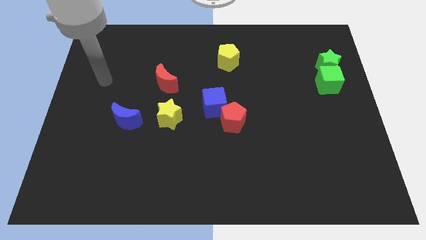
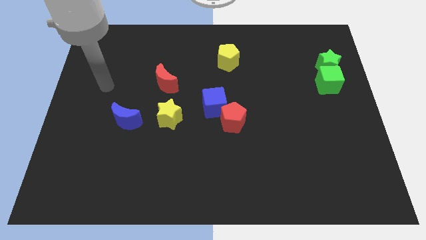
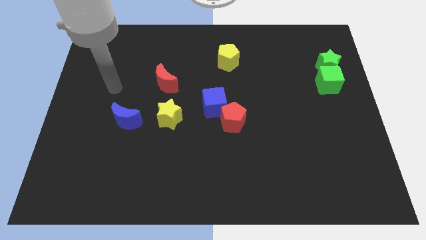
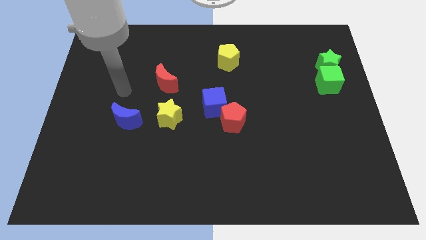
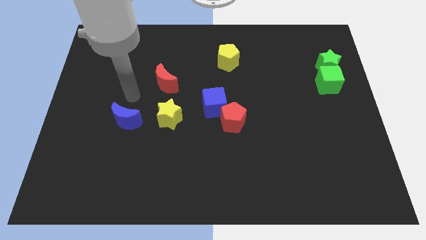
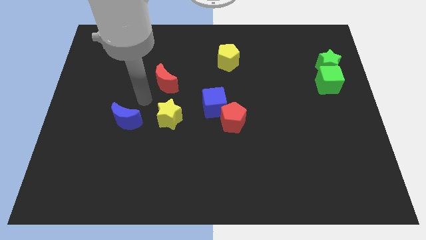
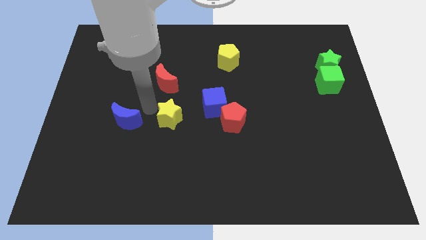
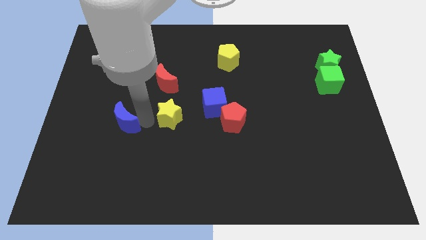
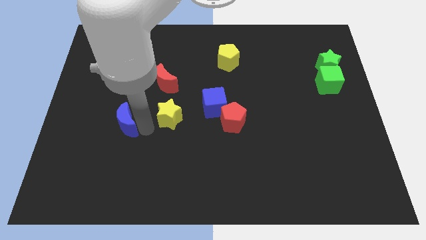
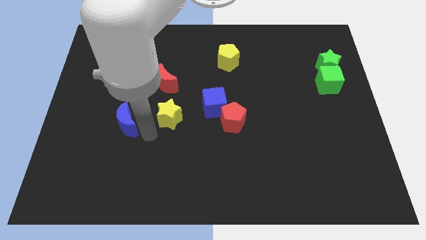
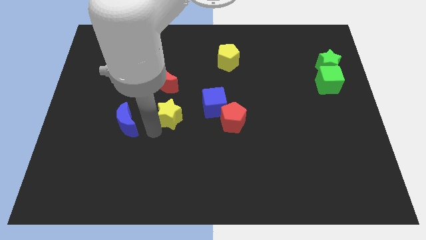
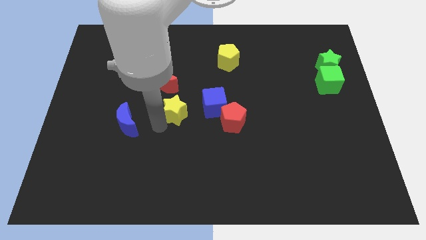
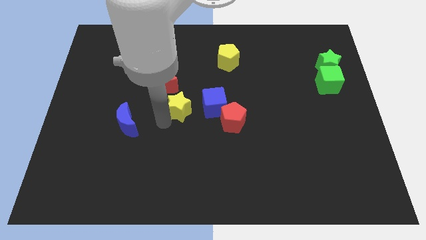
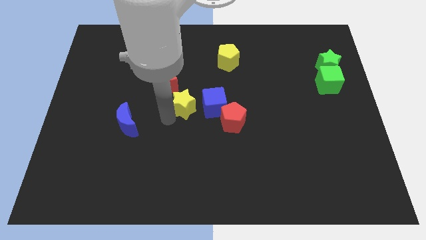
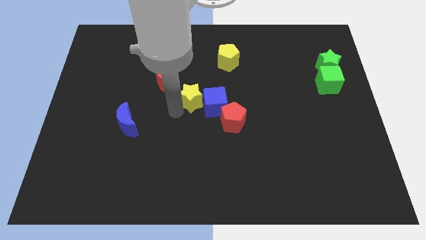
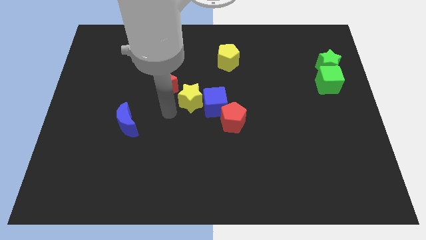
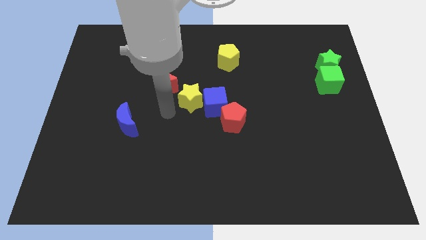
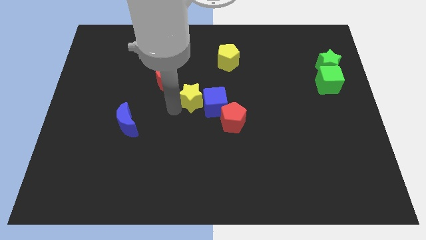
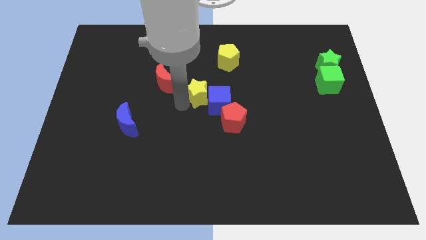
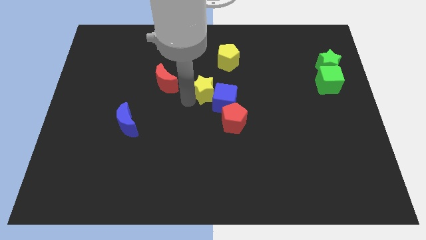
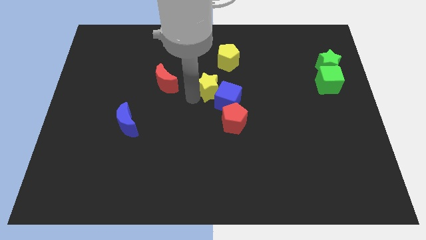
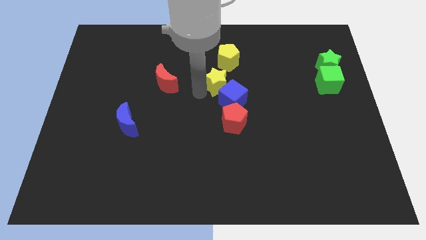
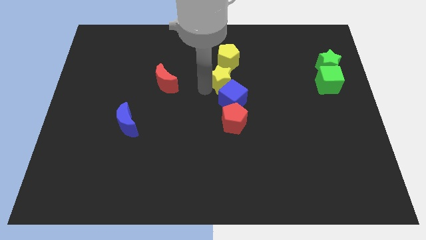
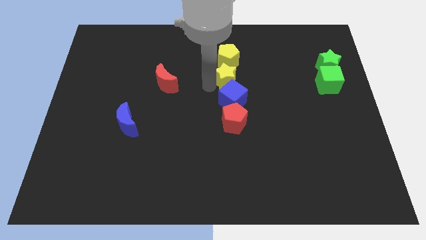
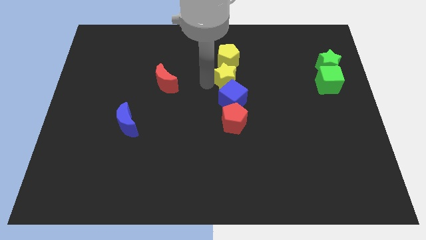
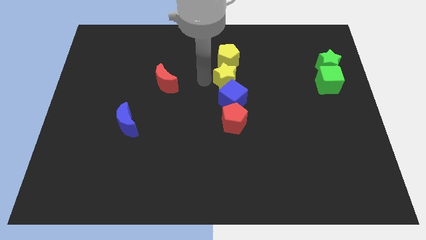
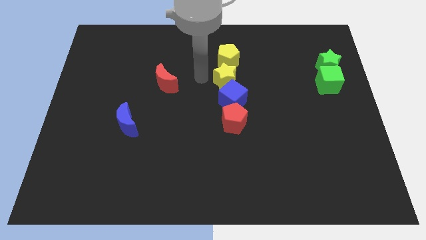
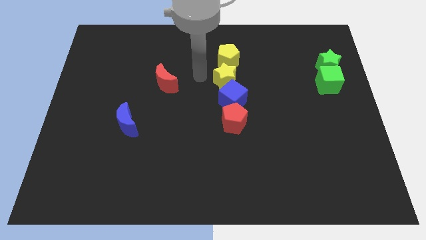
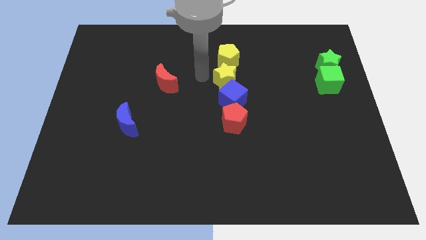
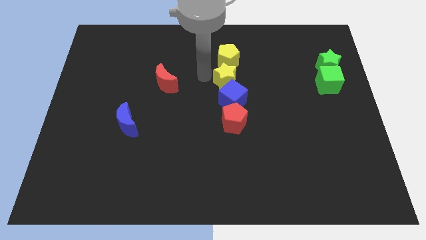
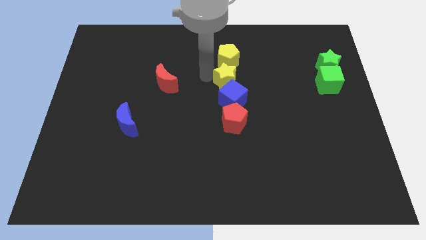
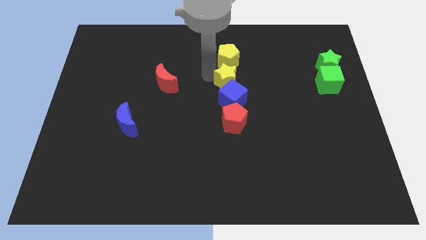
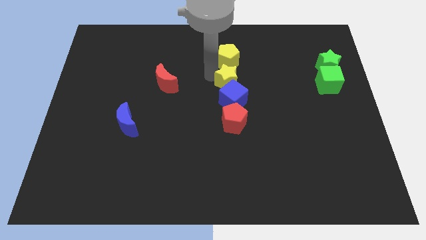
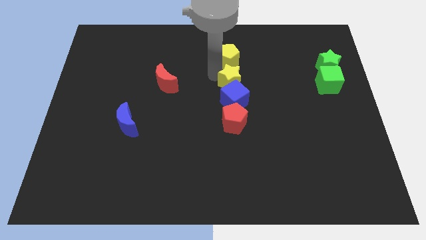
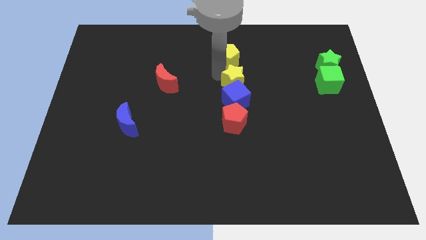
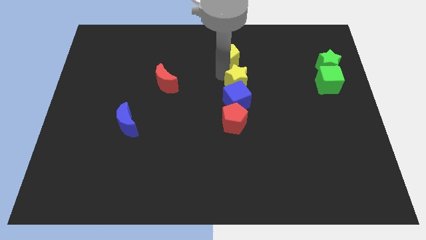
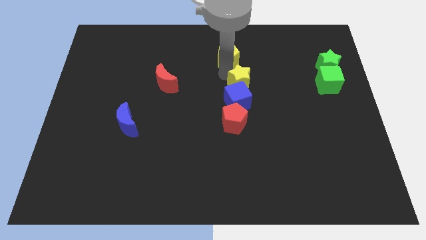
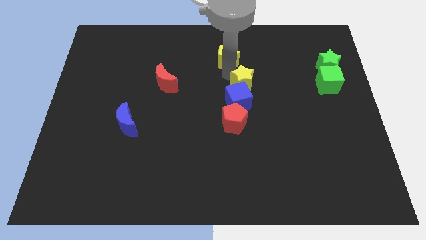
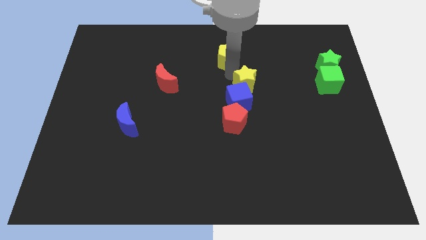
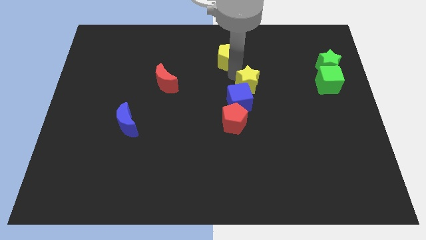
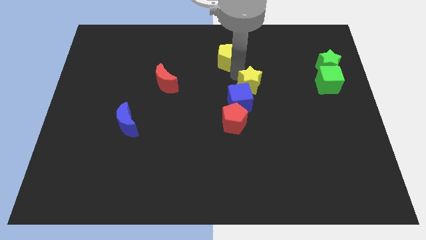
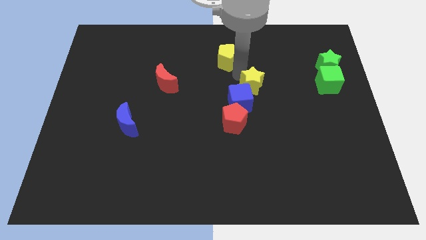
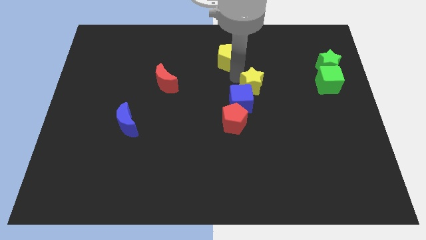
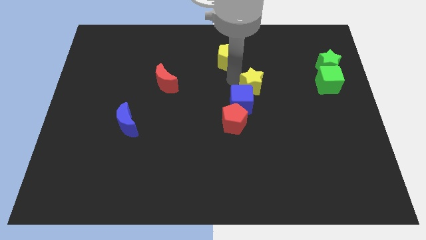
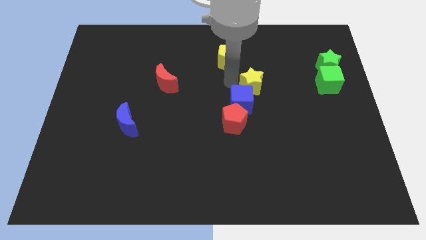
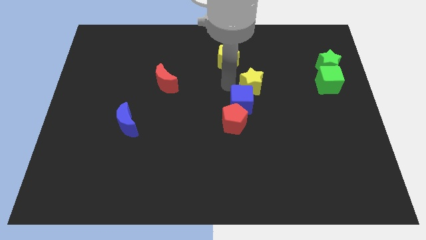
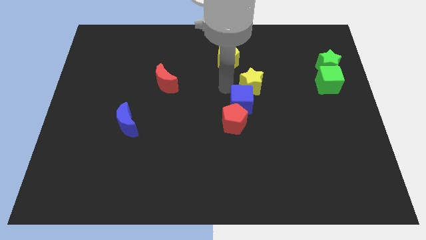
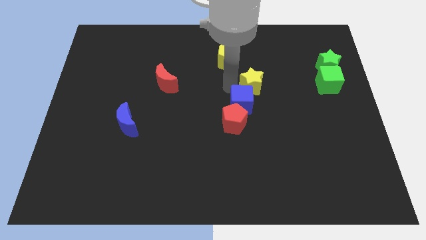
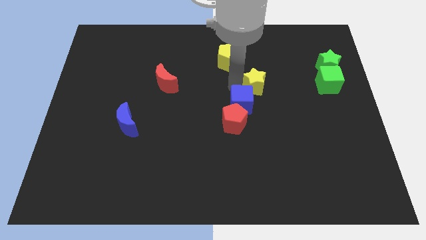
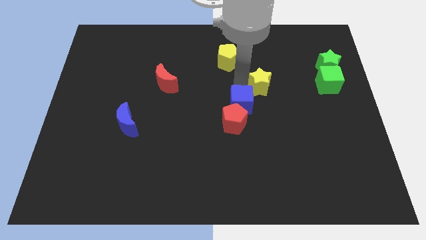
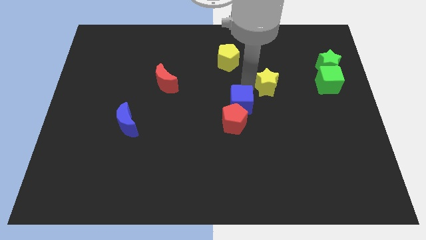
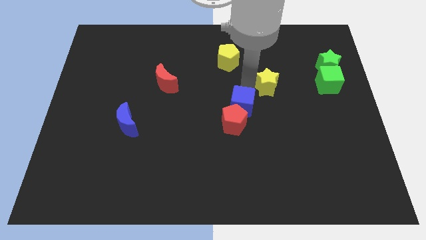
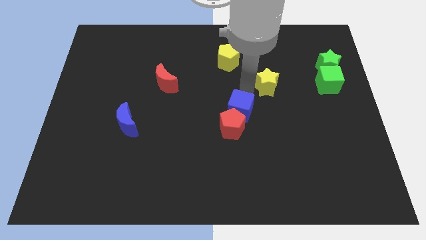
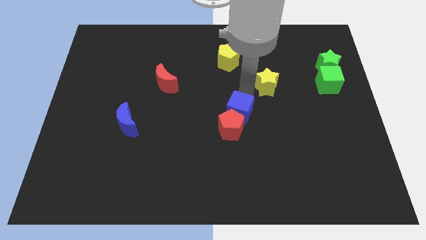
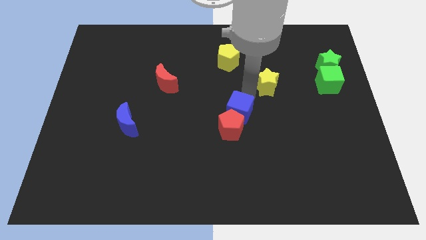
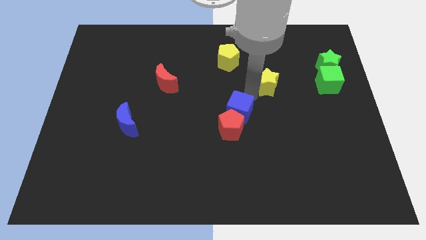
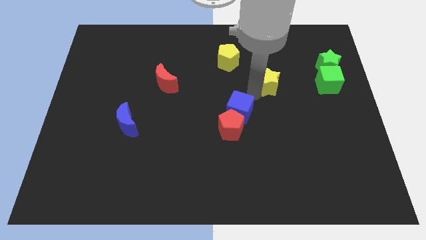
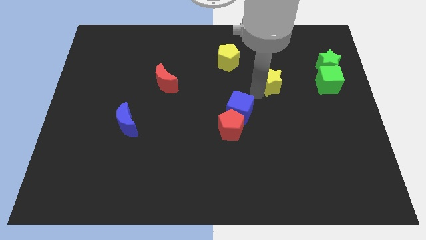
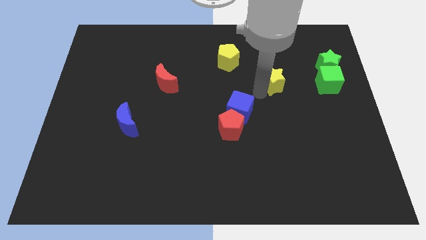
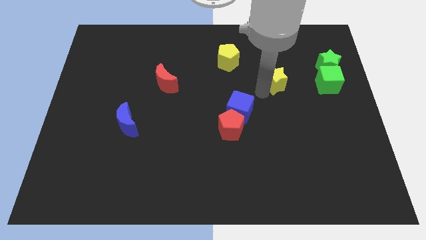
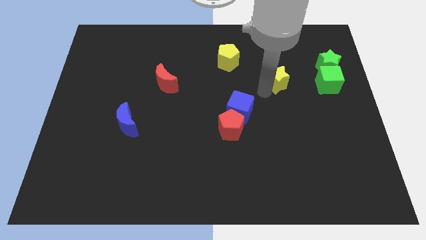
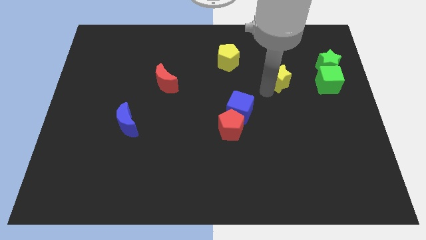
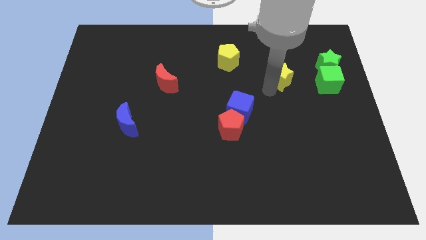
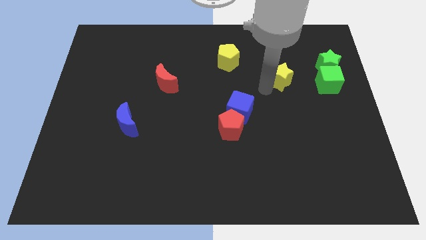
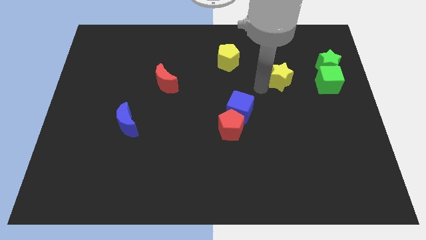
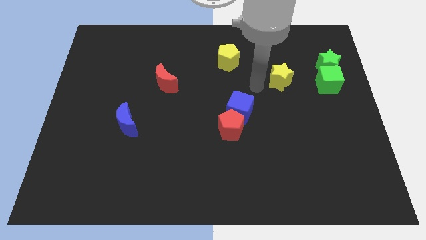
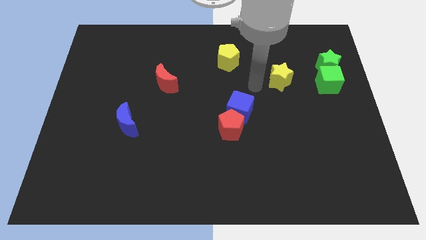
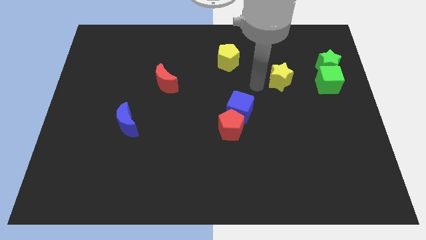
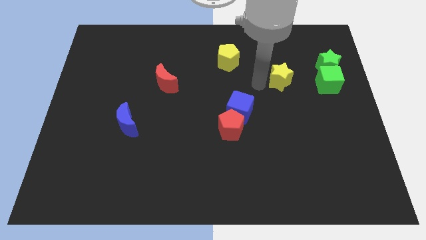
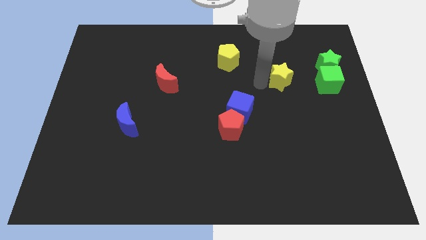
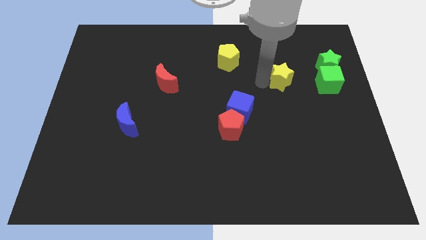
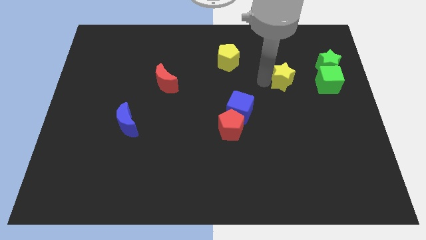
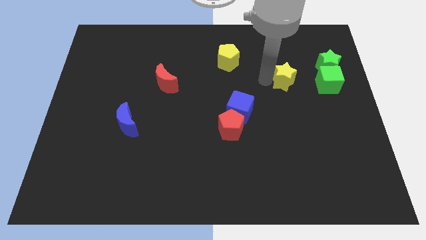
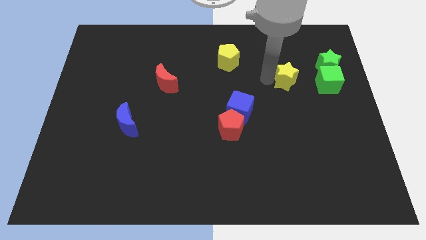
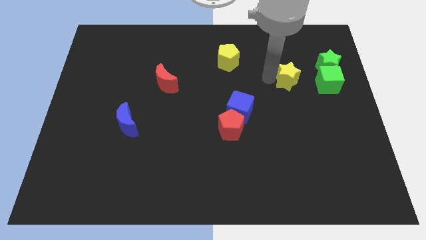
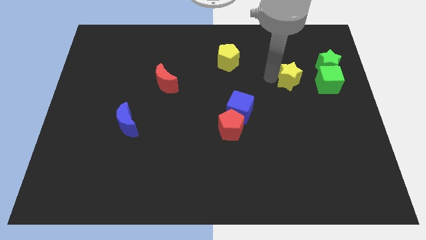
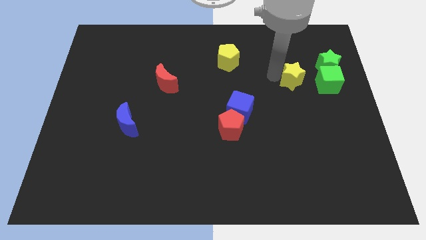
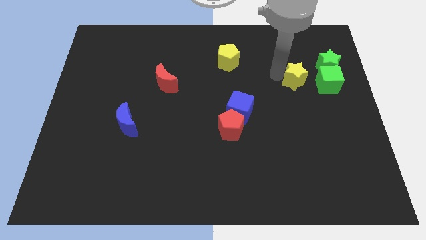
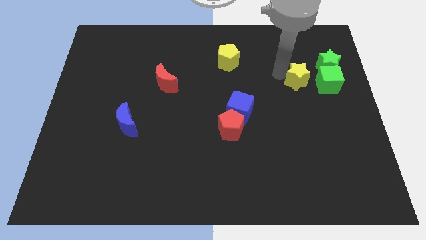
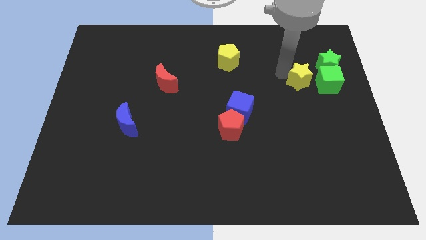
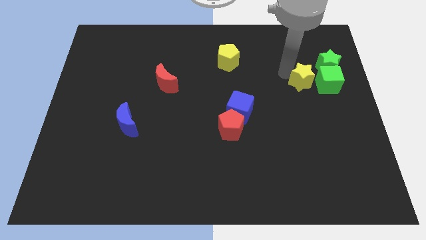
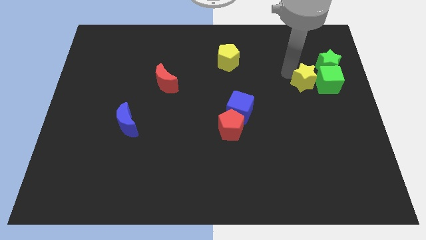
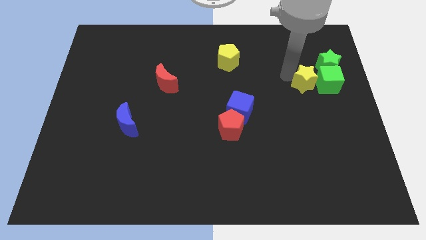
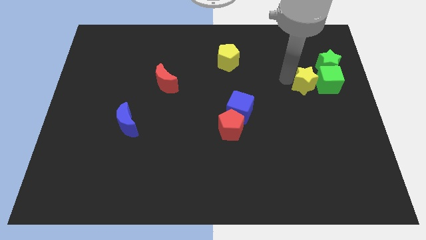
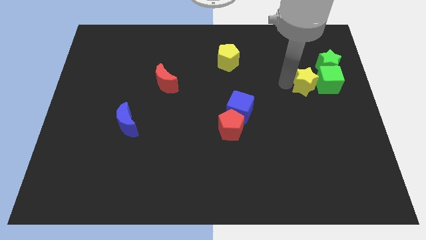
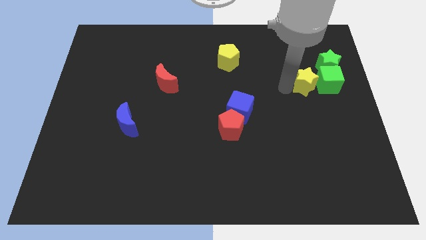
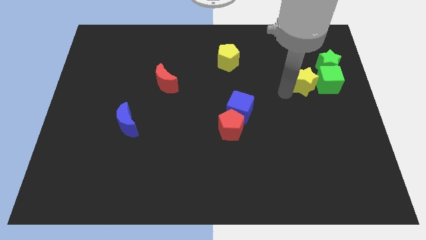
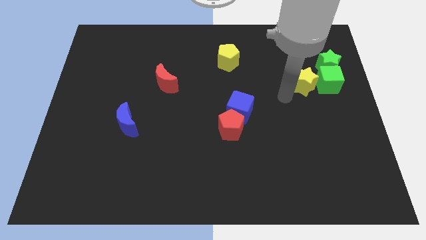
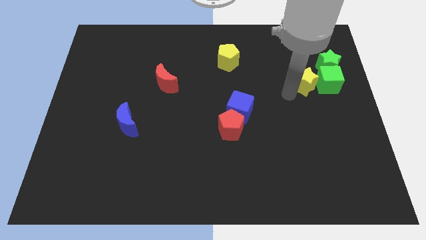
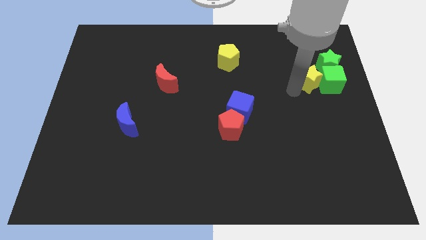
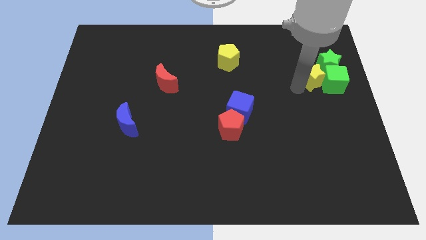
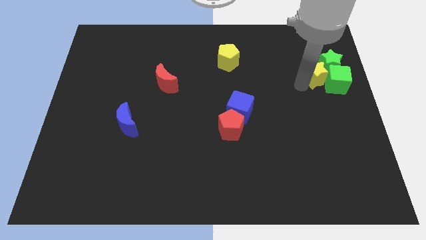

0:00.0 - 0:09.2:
slide the yellow star towards the green star
